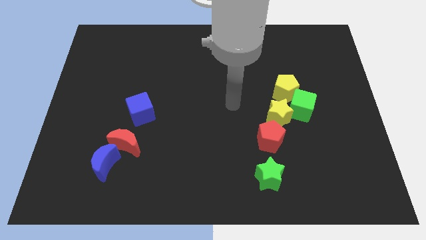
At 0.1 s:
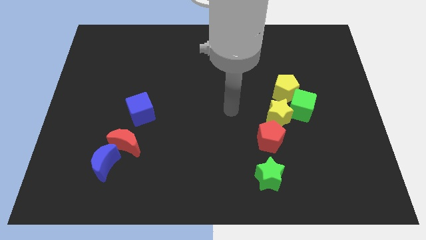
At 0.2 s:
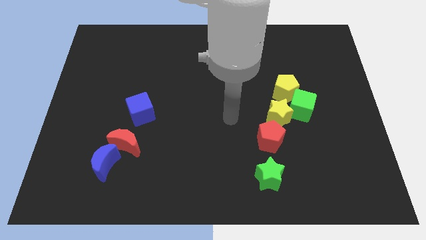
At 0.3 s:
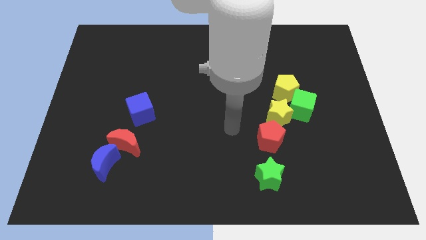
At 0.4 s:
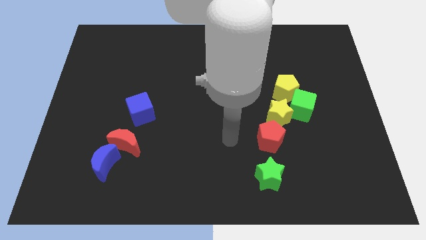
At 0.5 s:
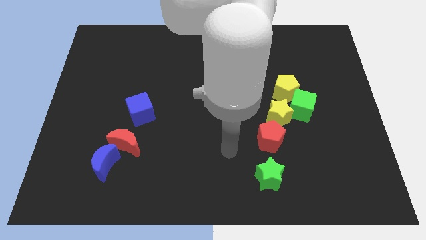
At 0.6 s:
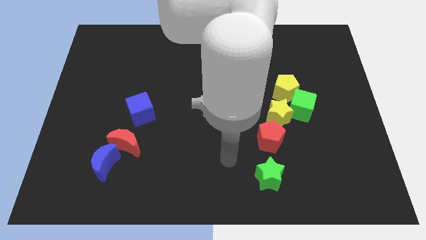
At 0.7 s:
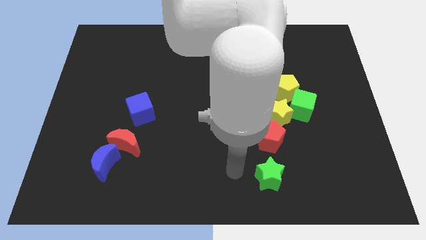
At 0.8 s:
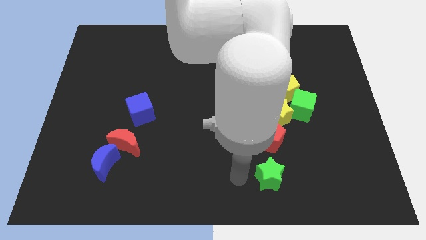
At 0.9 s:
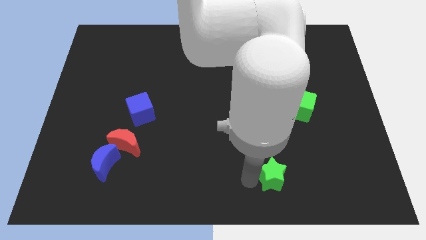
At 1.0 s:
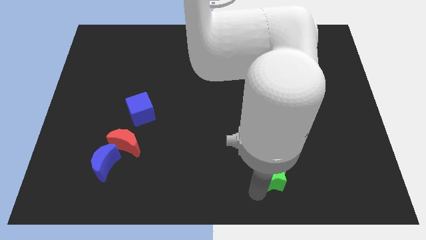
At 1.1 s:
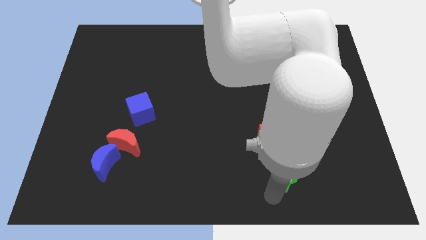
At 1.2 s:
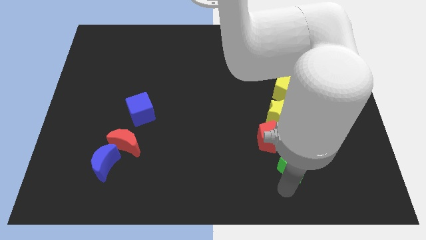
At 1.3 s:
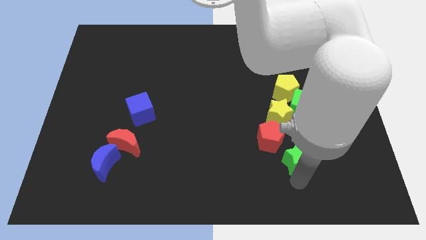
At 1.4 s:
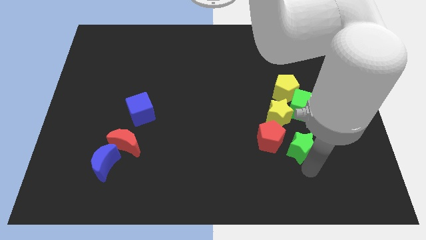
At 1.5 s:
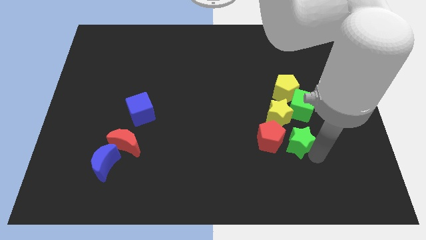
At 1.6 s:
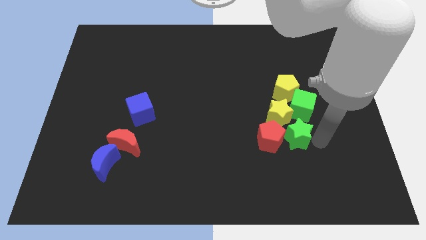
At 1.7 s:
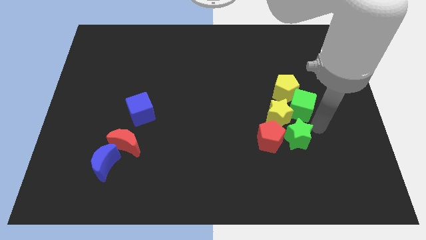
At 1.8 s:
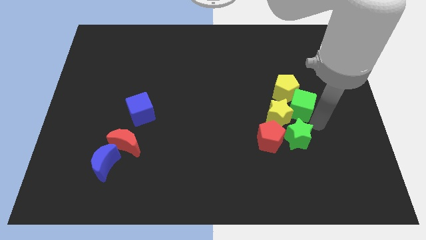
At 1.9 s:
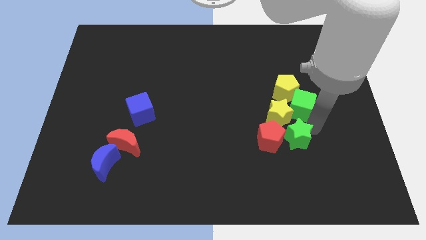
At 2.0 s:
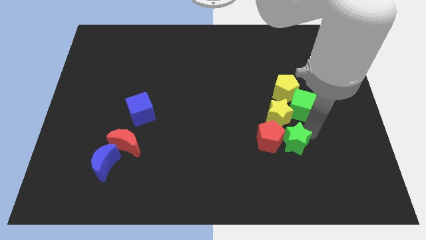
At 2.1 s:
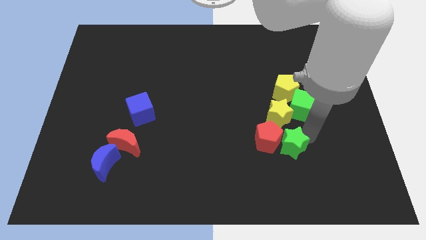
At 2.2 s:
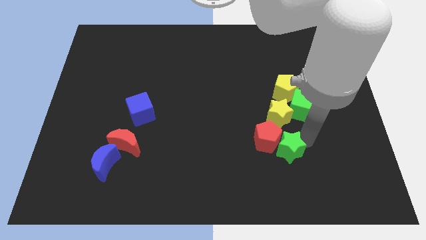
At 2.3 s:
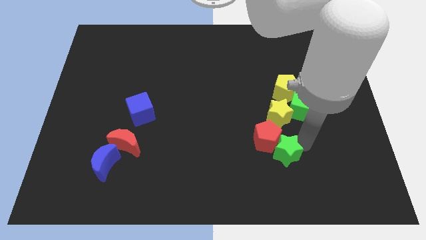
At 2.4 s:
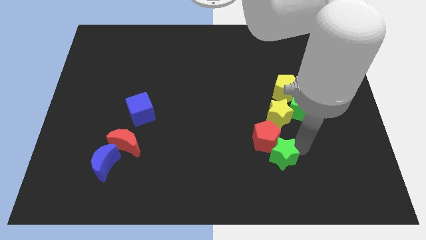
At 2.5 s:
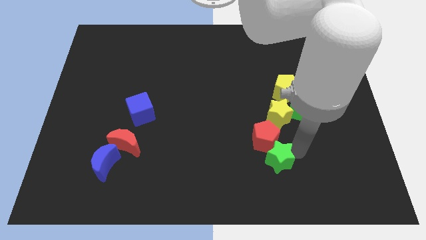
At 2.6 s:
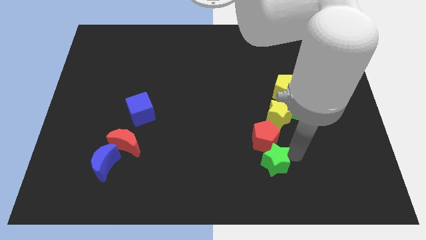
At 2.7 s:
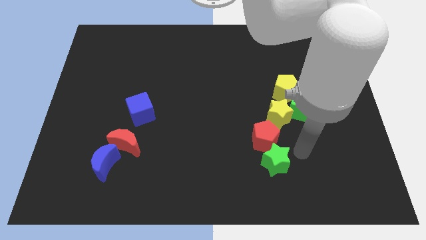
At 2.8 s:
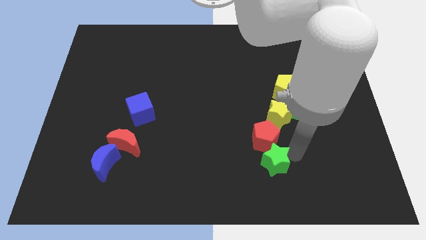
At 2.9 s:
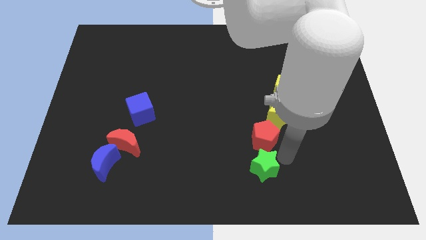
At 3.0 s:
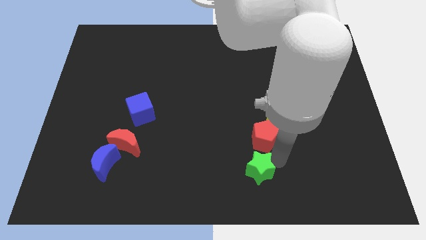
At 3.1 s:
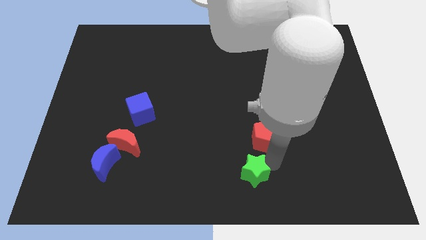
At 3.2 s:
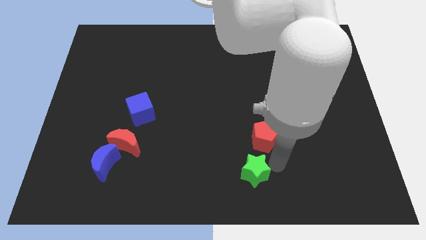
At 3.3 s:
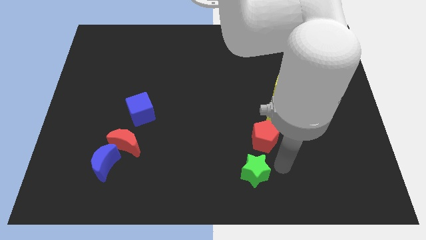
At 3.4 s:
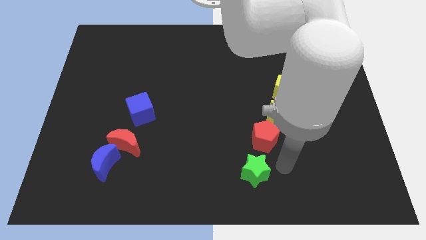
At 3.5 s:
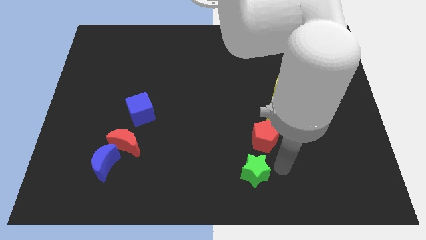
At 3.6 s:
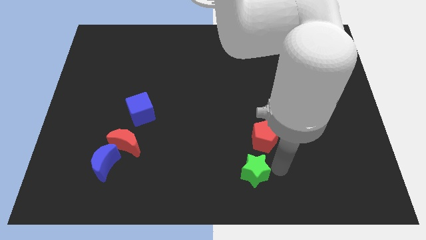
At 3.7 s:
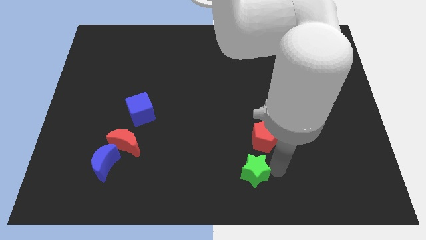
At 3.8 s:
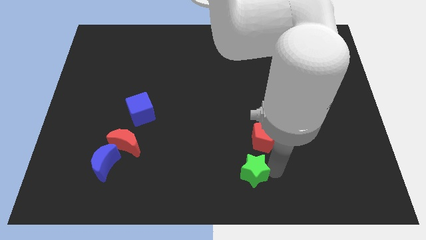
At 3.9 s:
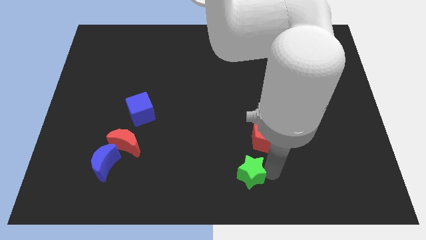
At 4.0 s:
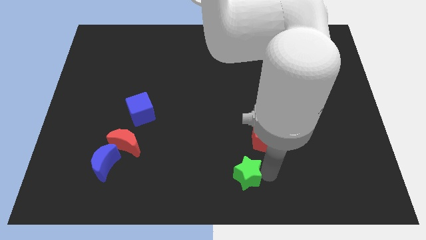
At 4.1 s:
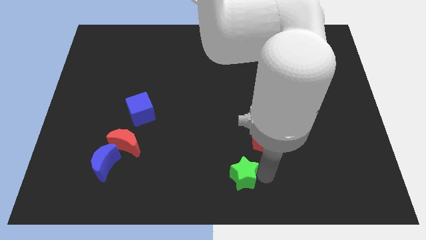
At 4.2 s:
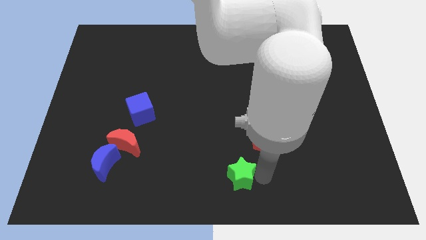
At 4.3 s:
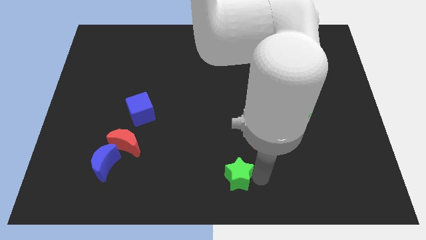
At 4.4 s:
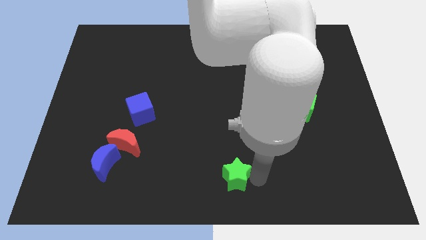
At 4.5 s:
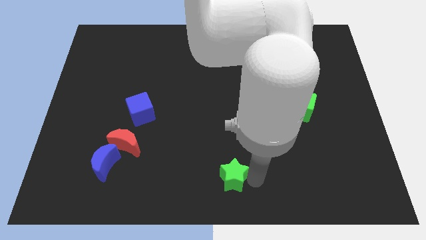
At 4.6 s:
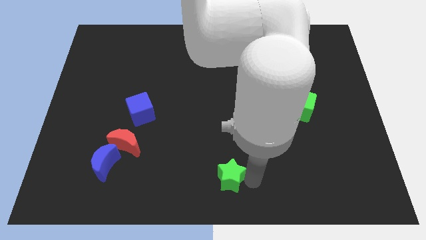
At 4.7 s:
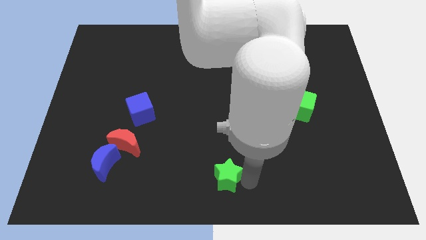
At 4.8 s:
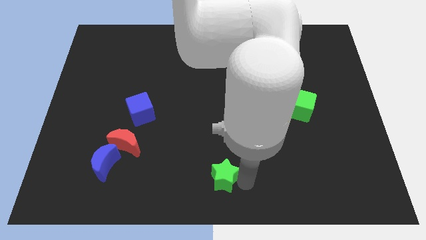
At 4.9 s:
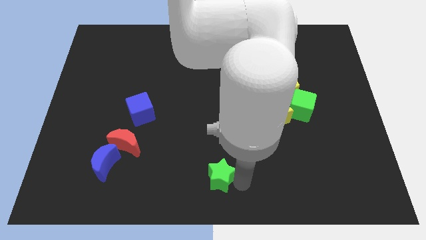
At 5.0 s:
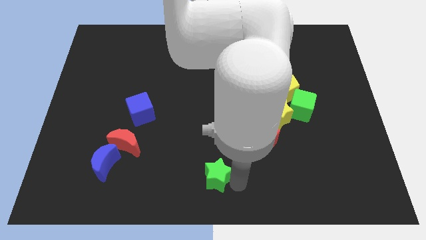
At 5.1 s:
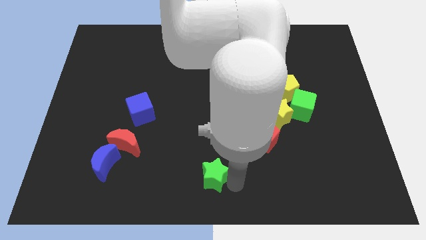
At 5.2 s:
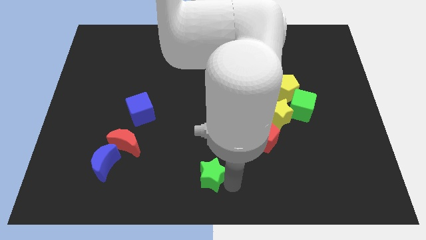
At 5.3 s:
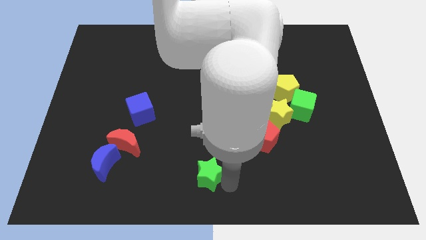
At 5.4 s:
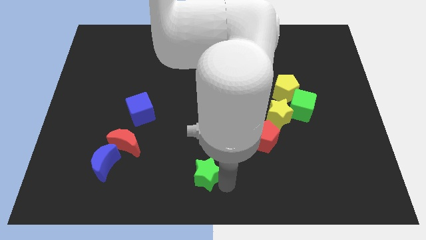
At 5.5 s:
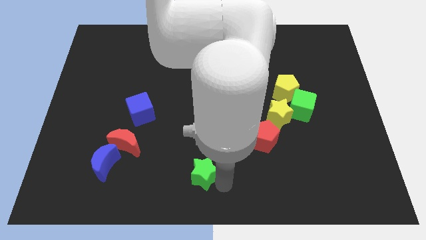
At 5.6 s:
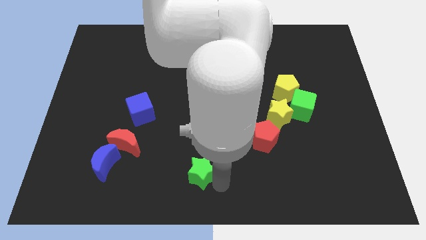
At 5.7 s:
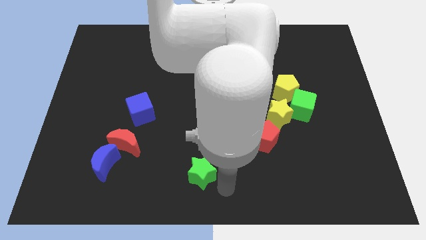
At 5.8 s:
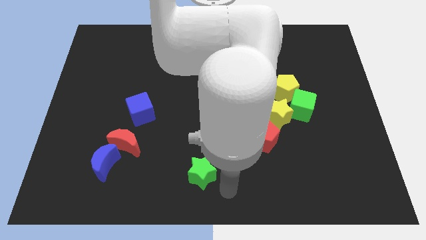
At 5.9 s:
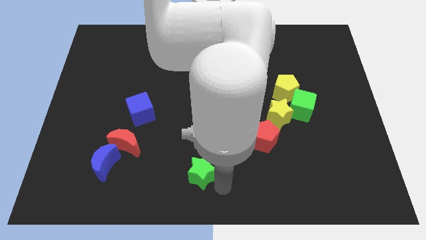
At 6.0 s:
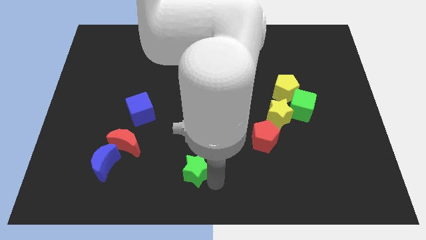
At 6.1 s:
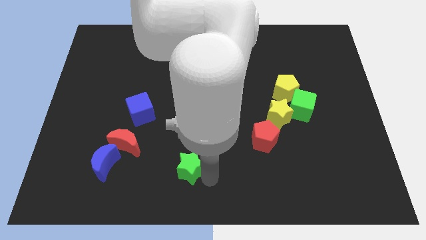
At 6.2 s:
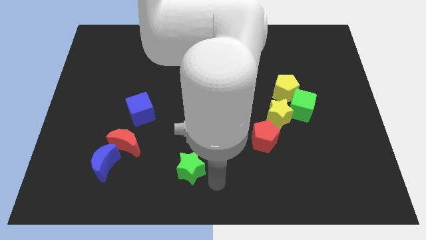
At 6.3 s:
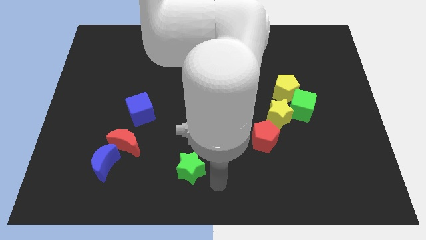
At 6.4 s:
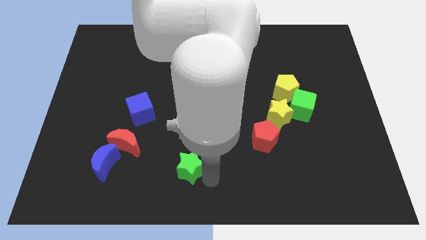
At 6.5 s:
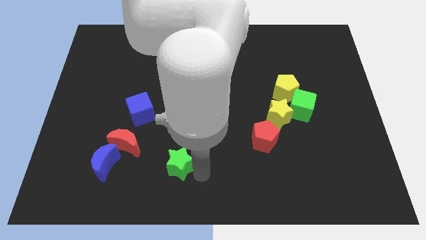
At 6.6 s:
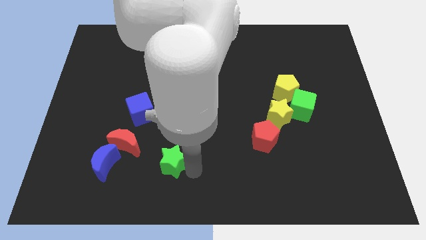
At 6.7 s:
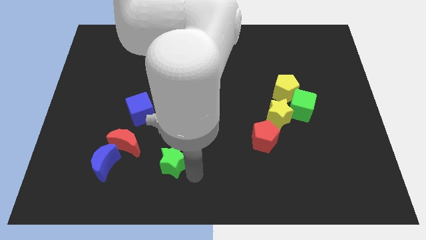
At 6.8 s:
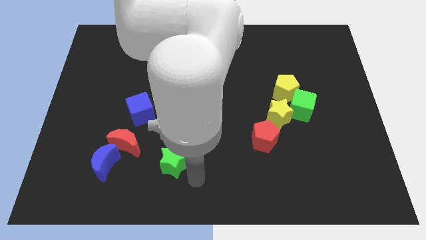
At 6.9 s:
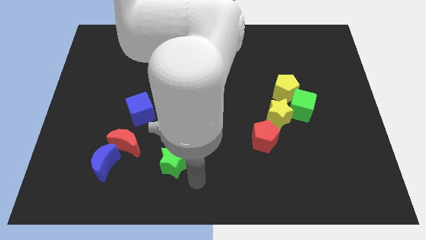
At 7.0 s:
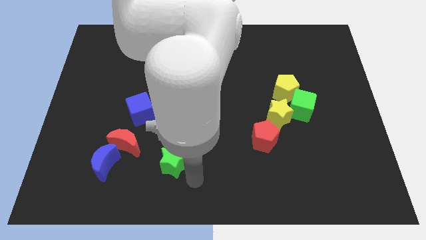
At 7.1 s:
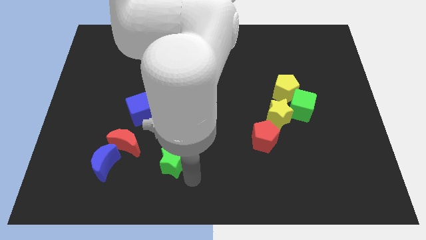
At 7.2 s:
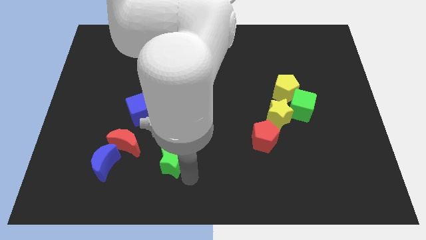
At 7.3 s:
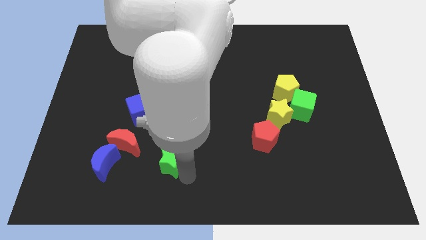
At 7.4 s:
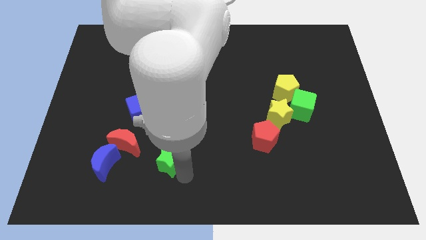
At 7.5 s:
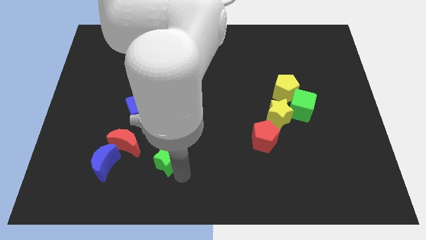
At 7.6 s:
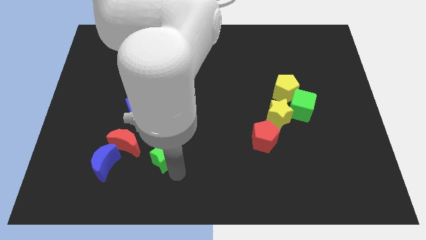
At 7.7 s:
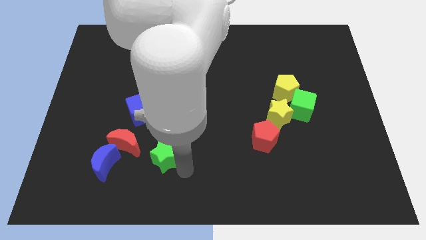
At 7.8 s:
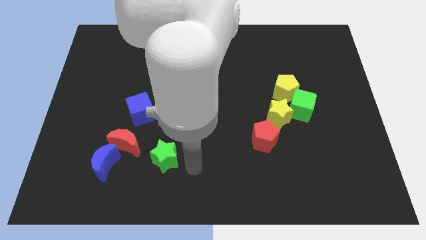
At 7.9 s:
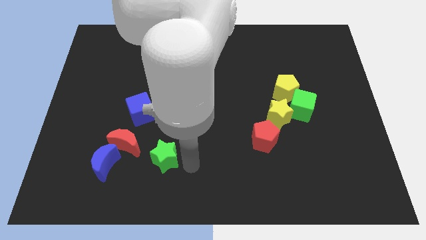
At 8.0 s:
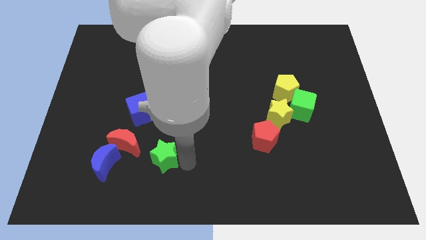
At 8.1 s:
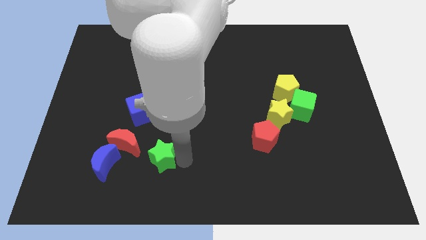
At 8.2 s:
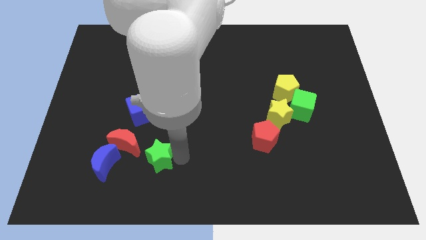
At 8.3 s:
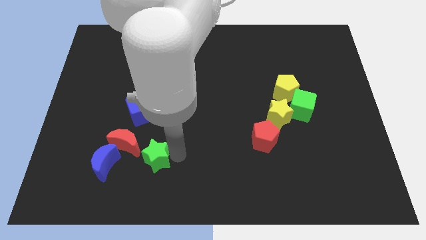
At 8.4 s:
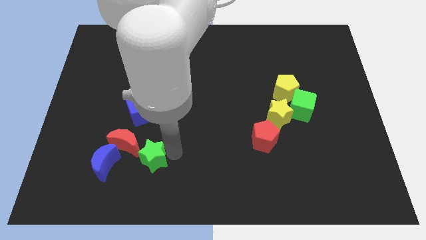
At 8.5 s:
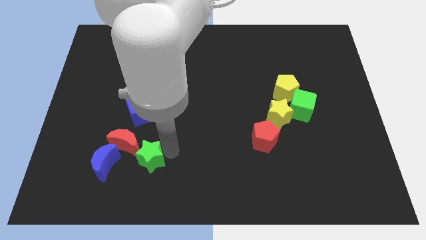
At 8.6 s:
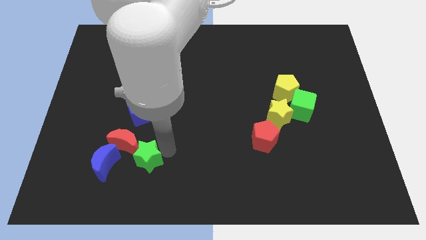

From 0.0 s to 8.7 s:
put the green star towards the red moon
